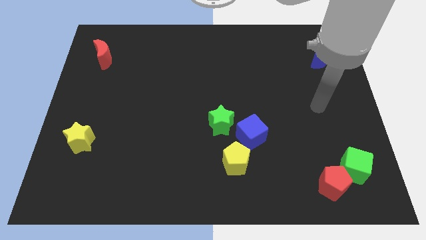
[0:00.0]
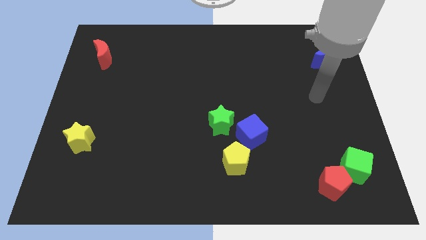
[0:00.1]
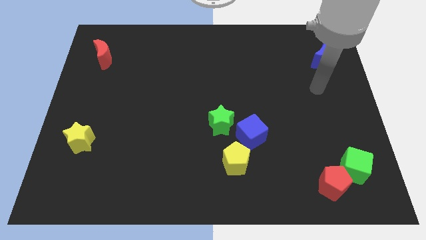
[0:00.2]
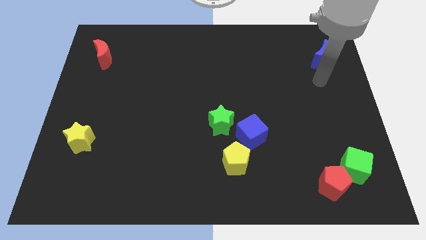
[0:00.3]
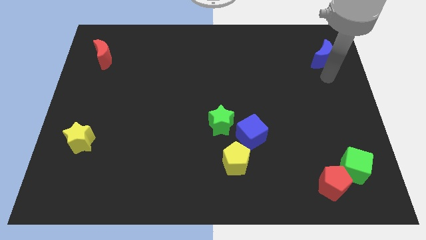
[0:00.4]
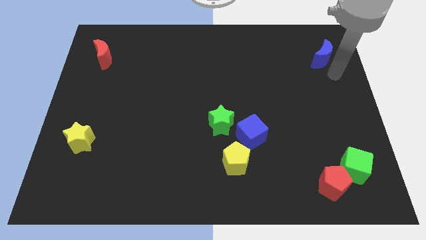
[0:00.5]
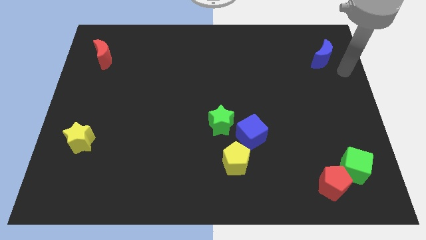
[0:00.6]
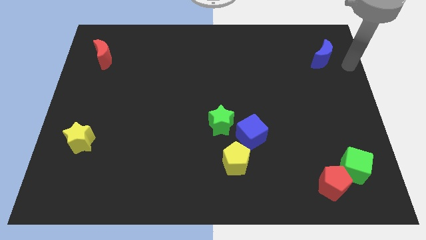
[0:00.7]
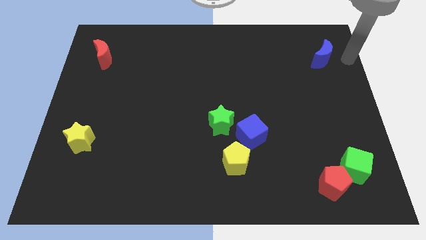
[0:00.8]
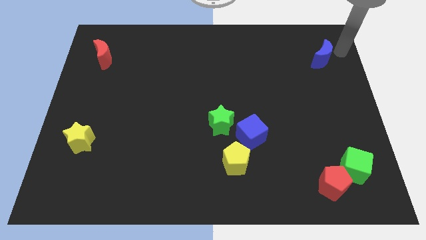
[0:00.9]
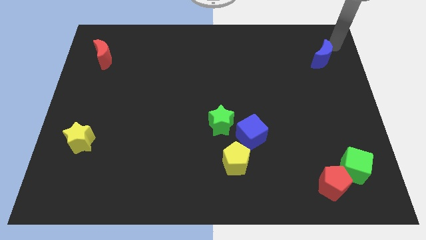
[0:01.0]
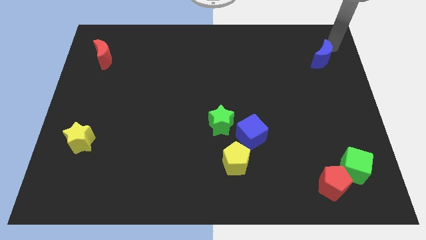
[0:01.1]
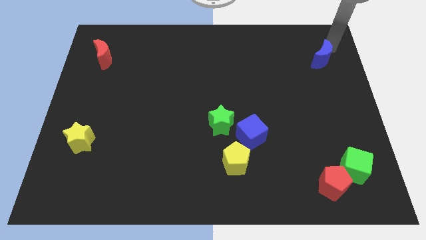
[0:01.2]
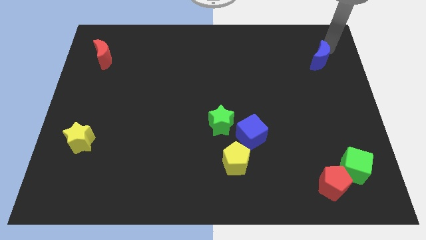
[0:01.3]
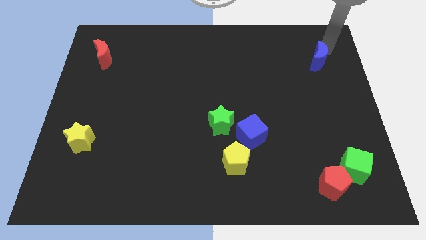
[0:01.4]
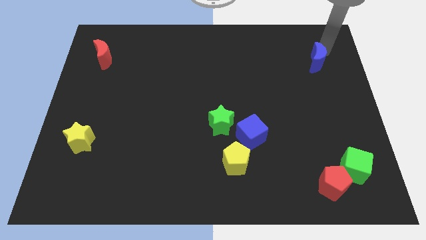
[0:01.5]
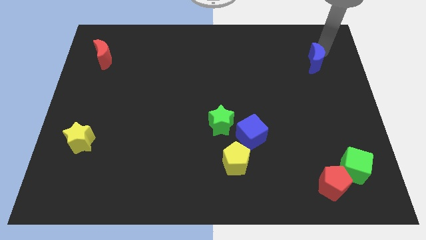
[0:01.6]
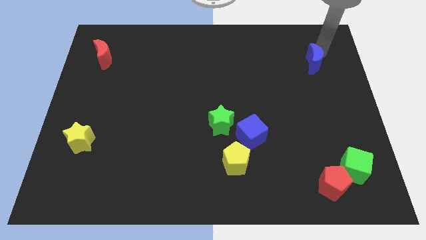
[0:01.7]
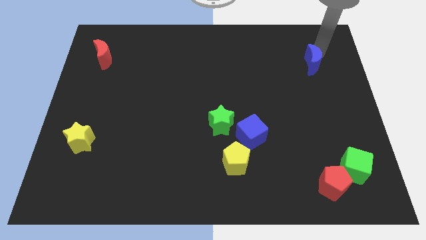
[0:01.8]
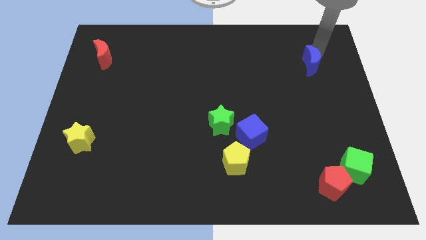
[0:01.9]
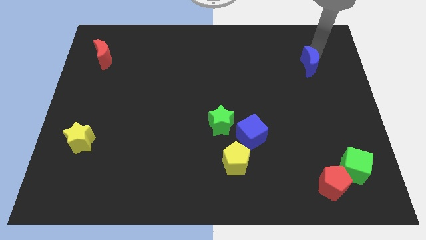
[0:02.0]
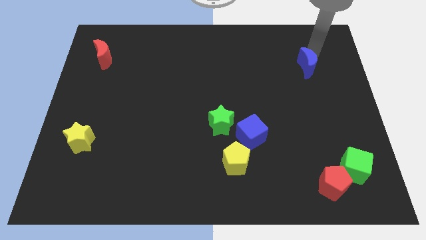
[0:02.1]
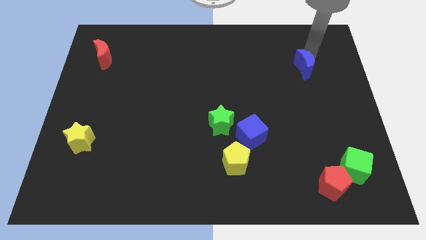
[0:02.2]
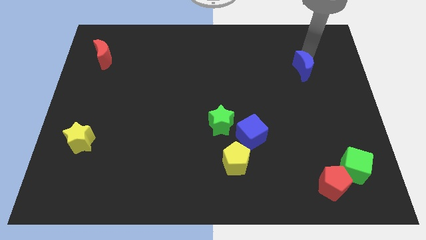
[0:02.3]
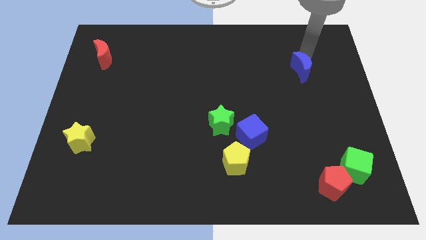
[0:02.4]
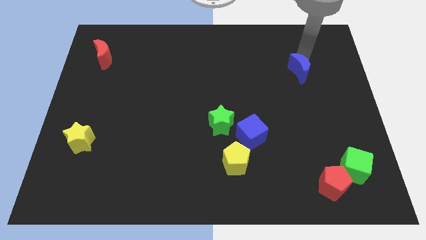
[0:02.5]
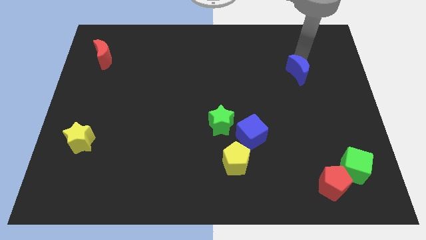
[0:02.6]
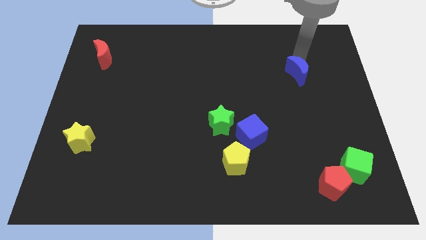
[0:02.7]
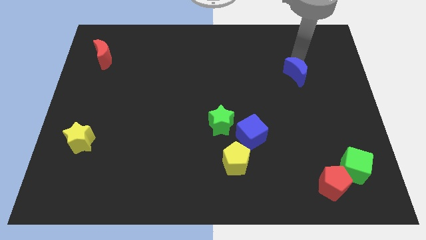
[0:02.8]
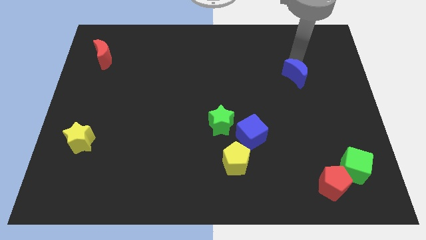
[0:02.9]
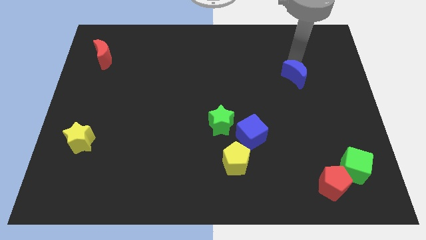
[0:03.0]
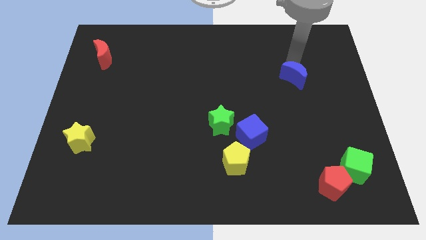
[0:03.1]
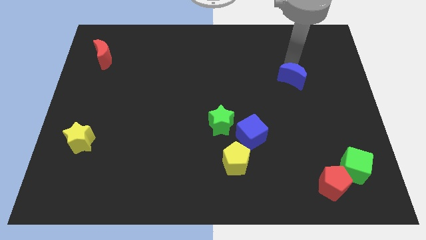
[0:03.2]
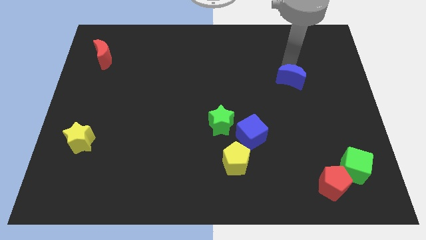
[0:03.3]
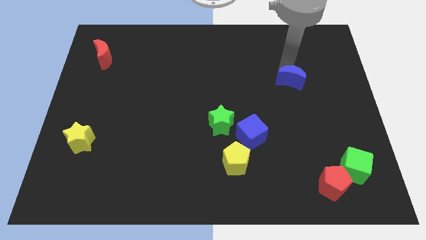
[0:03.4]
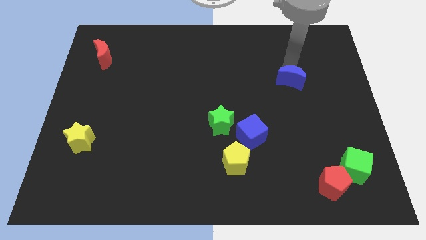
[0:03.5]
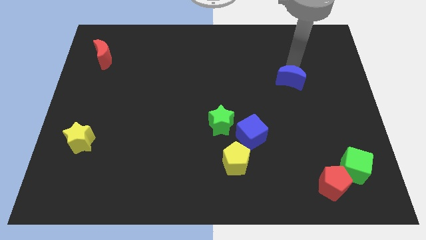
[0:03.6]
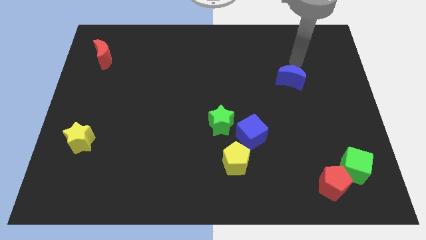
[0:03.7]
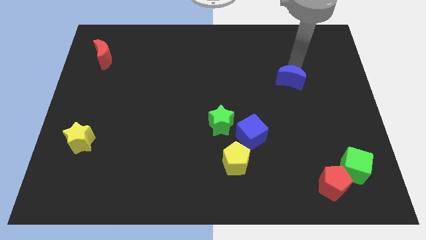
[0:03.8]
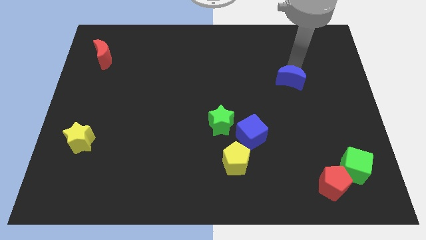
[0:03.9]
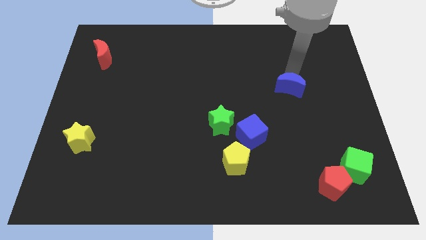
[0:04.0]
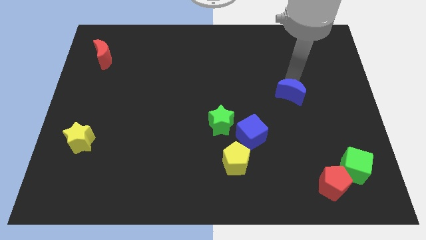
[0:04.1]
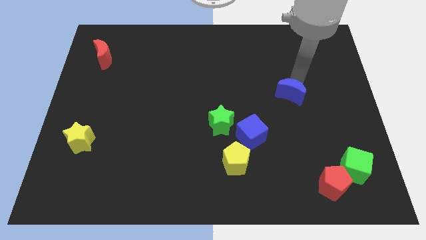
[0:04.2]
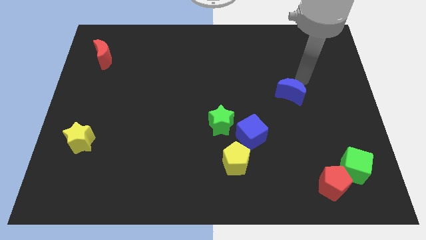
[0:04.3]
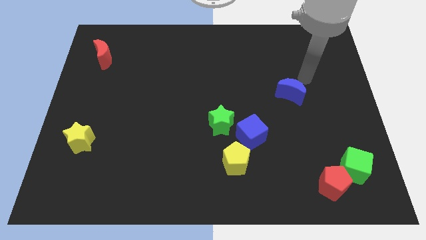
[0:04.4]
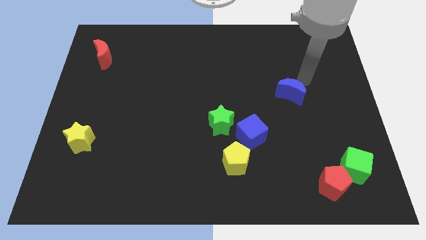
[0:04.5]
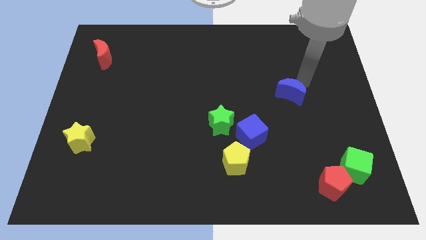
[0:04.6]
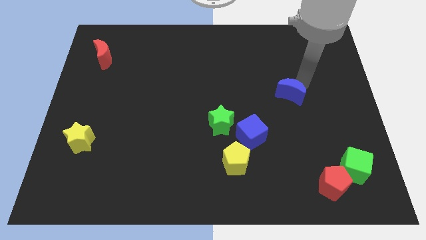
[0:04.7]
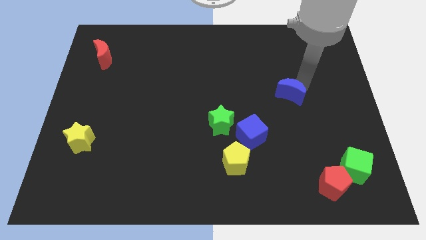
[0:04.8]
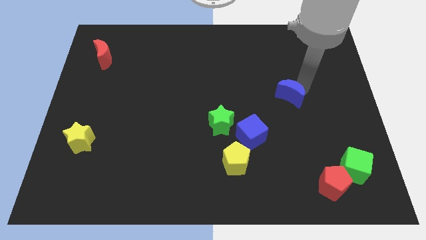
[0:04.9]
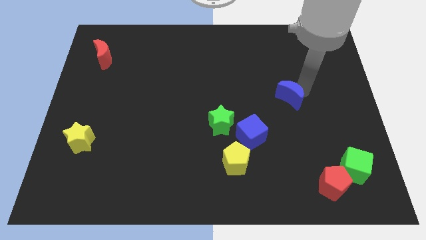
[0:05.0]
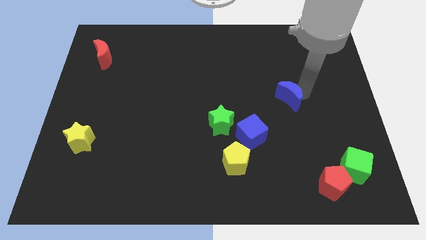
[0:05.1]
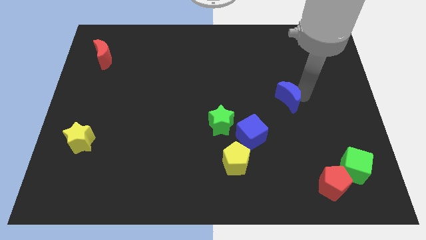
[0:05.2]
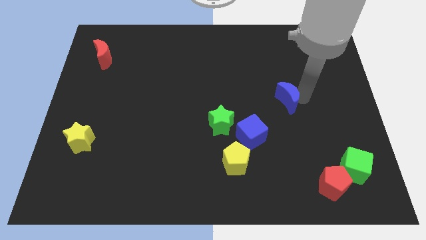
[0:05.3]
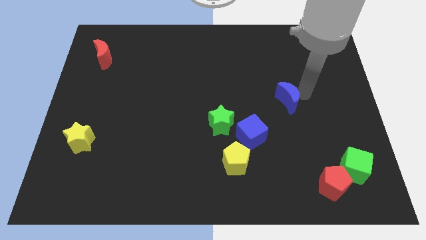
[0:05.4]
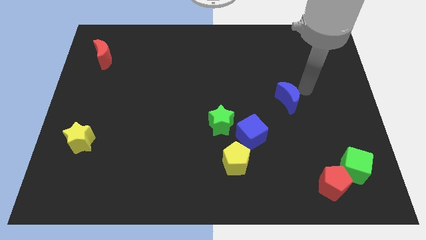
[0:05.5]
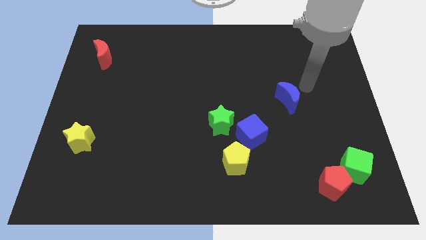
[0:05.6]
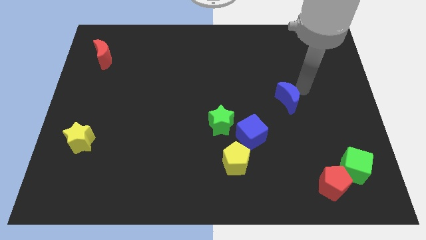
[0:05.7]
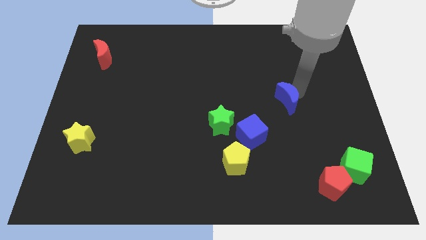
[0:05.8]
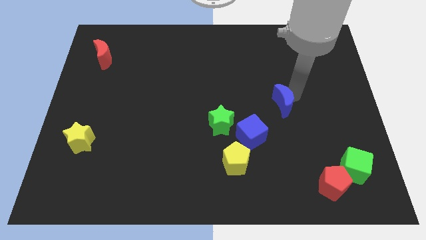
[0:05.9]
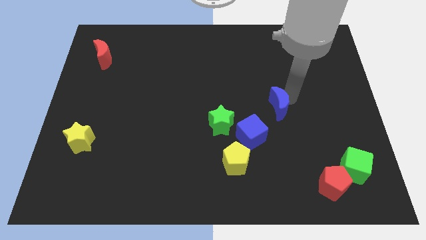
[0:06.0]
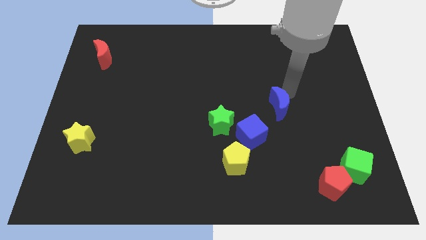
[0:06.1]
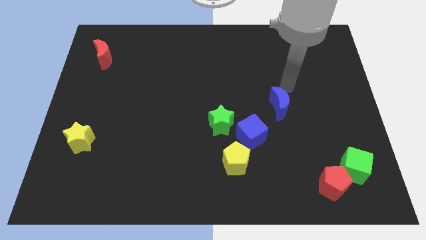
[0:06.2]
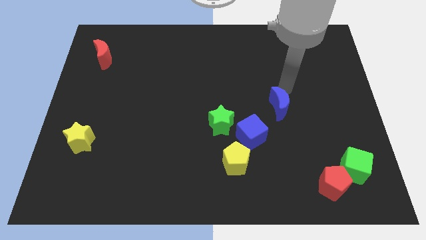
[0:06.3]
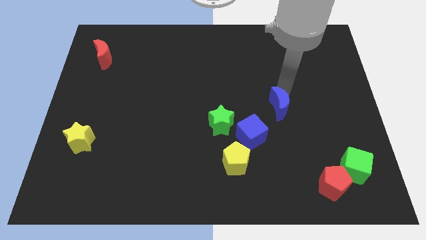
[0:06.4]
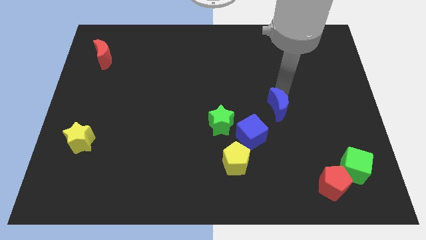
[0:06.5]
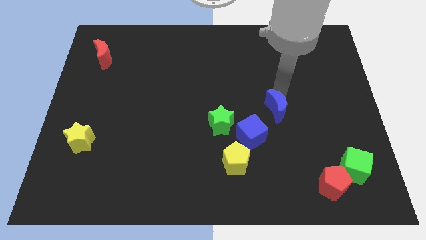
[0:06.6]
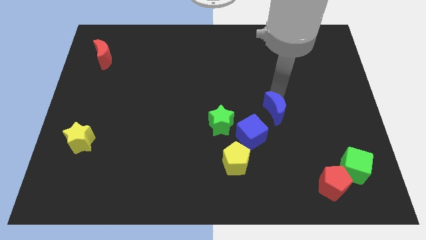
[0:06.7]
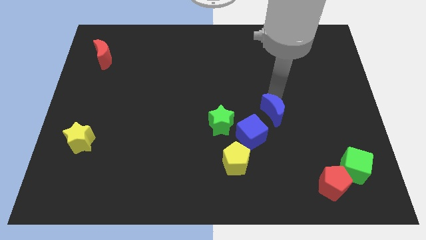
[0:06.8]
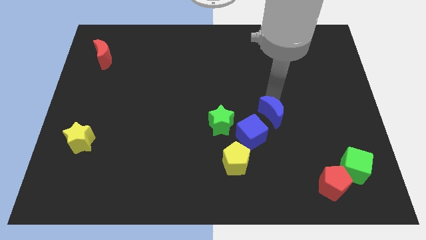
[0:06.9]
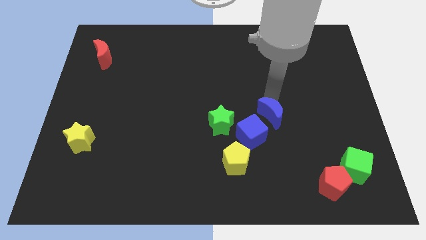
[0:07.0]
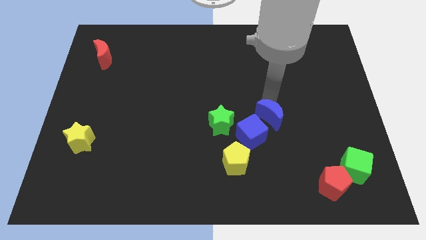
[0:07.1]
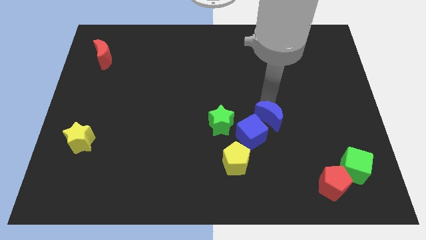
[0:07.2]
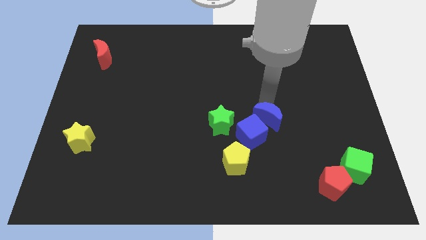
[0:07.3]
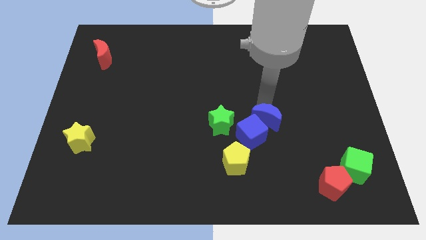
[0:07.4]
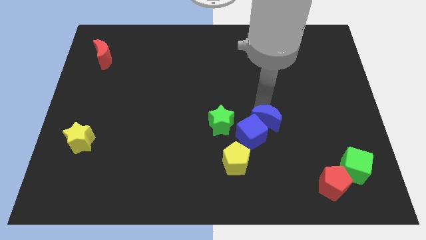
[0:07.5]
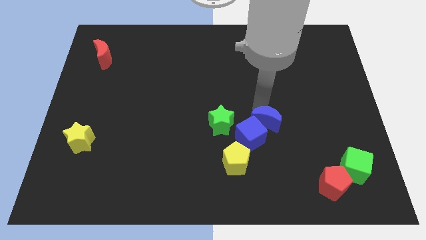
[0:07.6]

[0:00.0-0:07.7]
move the blue moon diagonally up and to the right of the yellow pentagon
